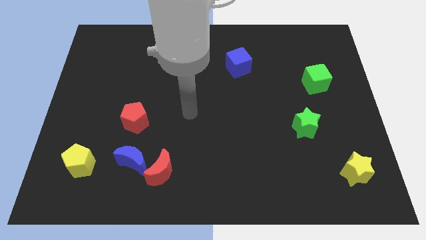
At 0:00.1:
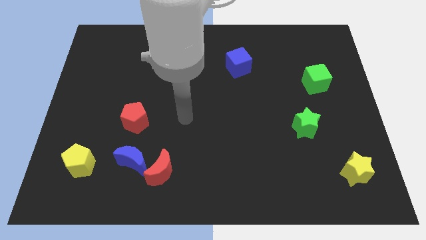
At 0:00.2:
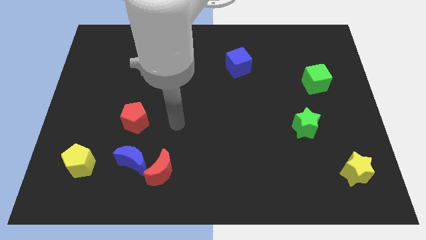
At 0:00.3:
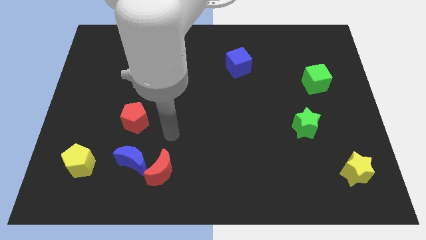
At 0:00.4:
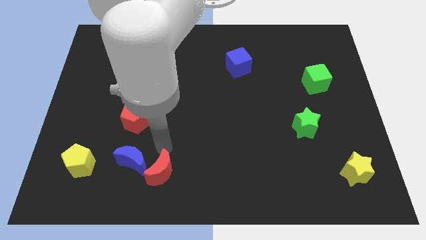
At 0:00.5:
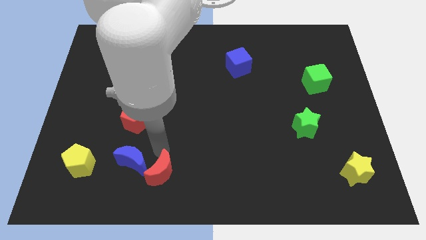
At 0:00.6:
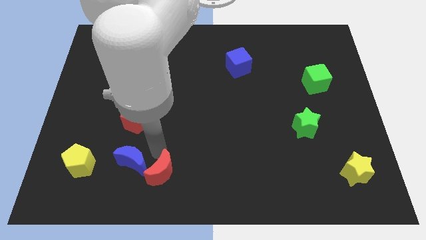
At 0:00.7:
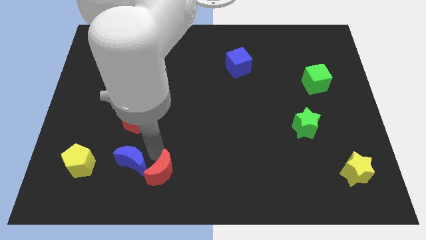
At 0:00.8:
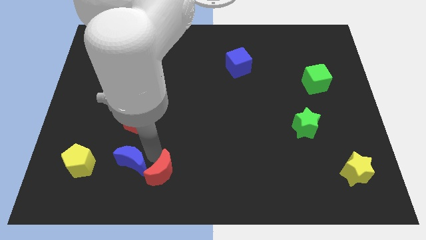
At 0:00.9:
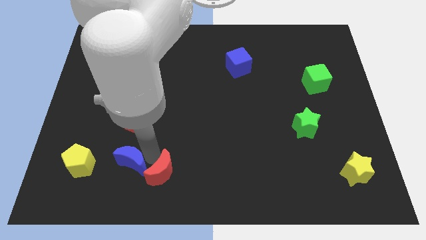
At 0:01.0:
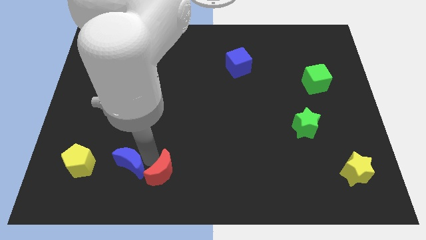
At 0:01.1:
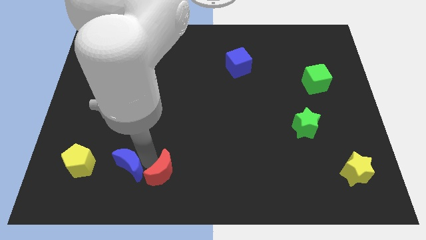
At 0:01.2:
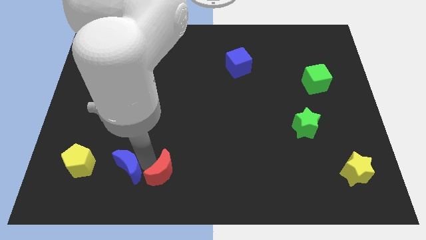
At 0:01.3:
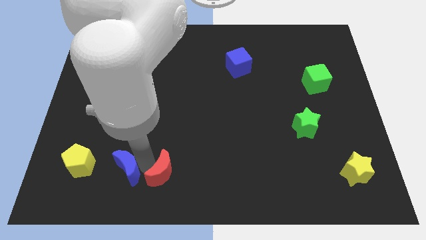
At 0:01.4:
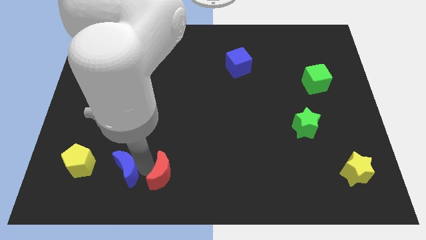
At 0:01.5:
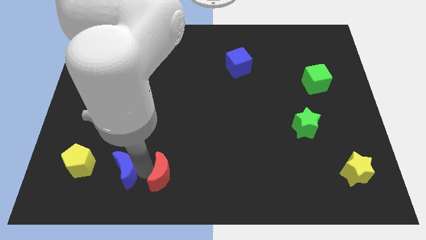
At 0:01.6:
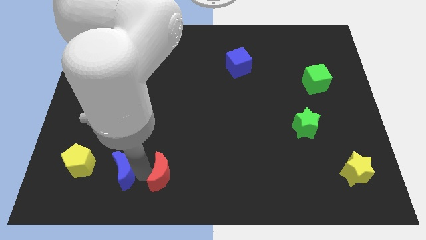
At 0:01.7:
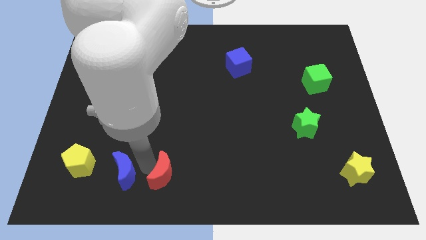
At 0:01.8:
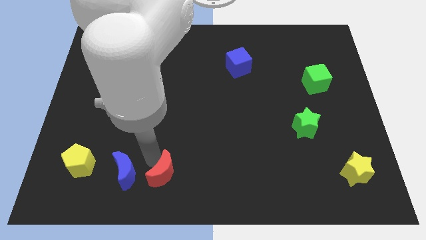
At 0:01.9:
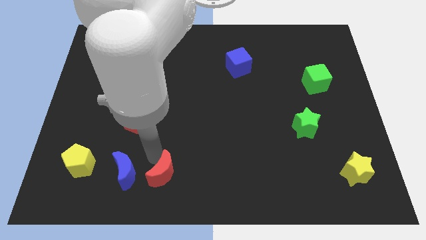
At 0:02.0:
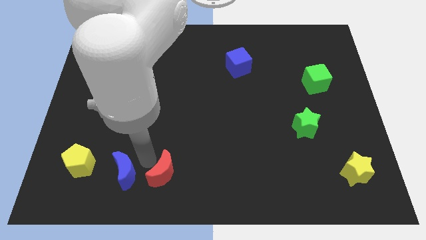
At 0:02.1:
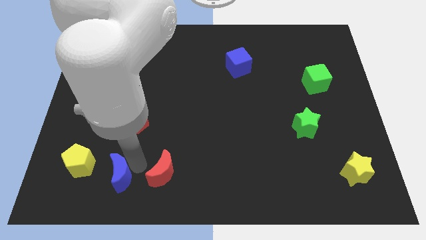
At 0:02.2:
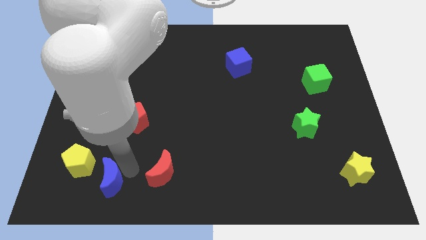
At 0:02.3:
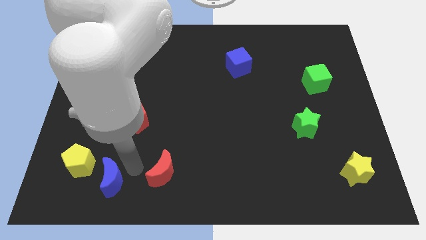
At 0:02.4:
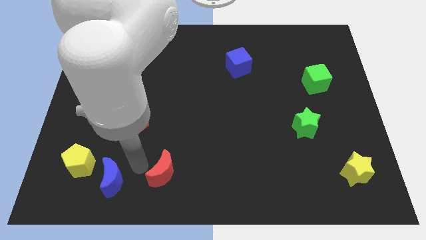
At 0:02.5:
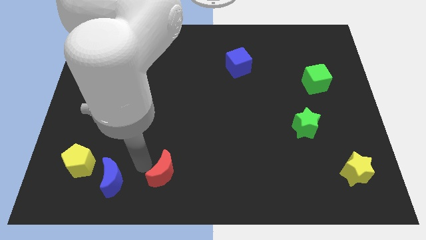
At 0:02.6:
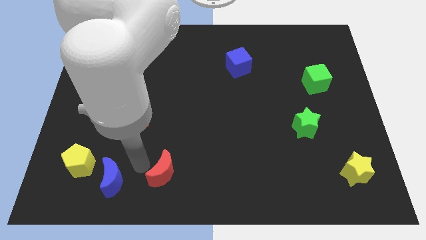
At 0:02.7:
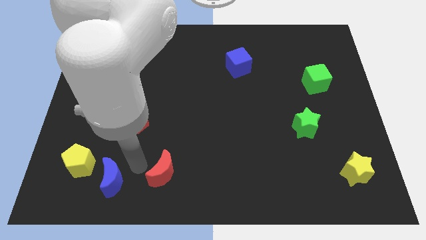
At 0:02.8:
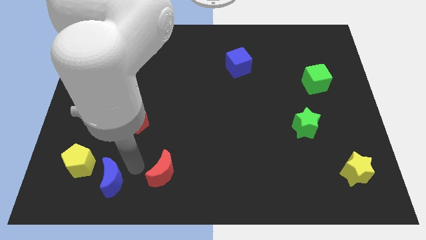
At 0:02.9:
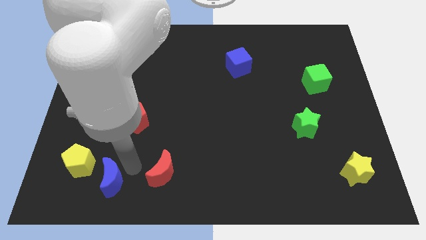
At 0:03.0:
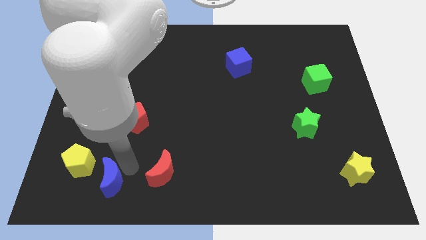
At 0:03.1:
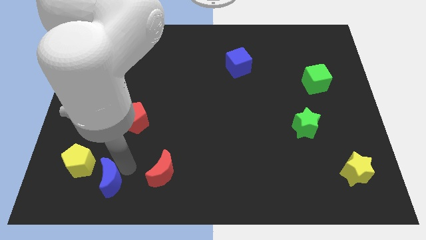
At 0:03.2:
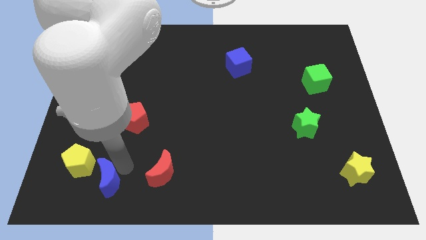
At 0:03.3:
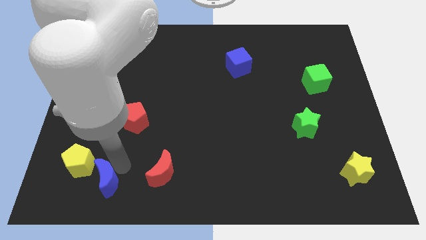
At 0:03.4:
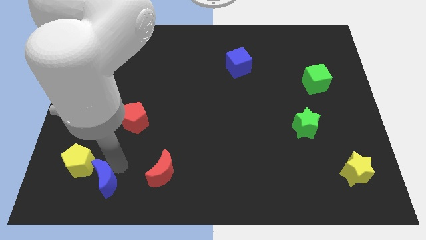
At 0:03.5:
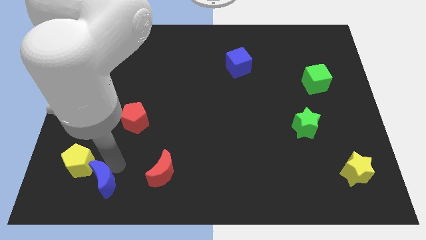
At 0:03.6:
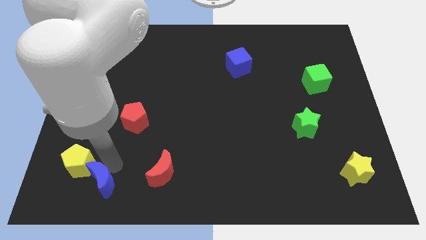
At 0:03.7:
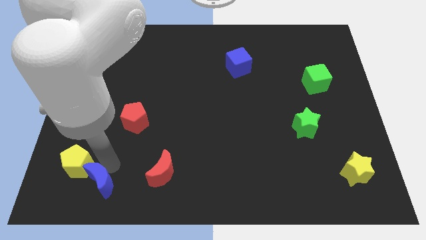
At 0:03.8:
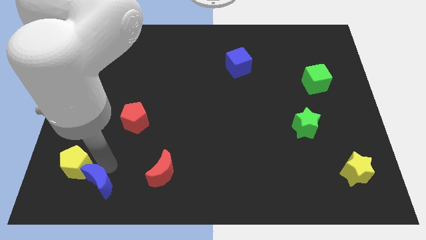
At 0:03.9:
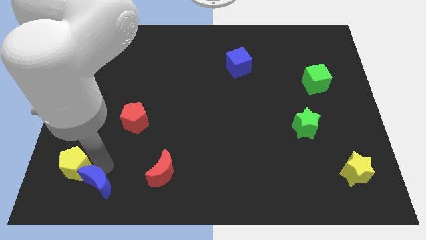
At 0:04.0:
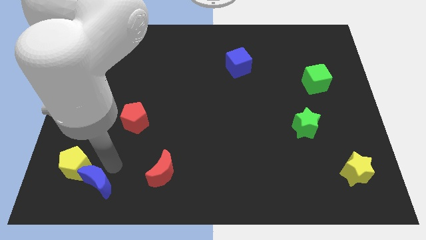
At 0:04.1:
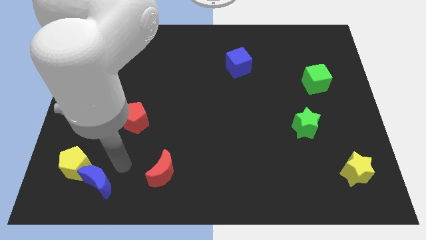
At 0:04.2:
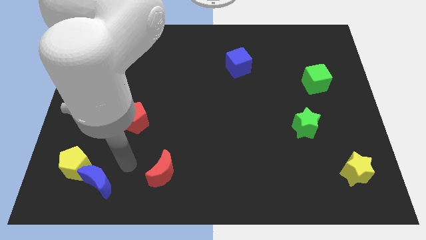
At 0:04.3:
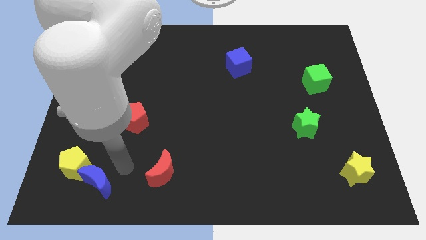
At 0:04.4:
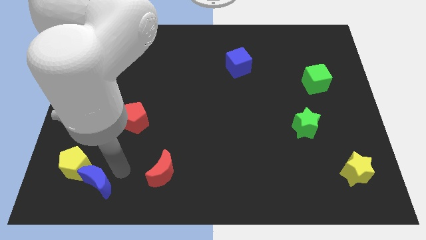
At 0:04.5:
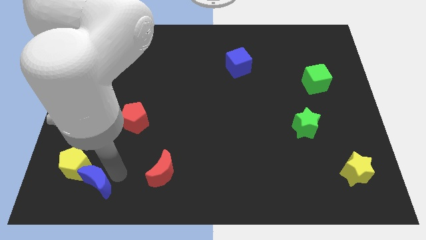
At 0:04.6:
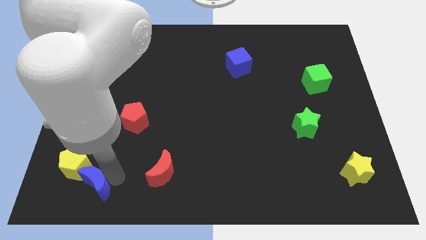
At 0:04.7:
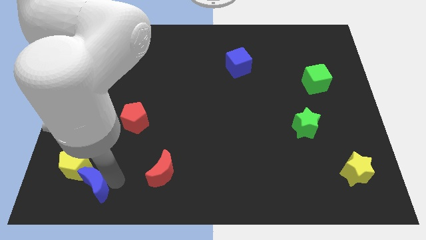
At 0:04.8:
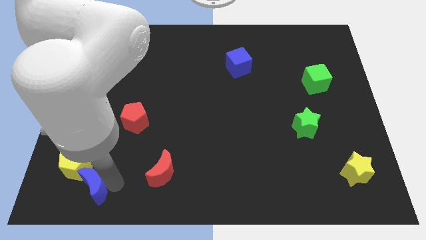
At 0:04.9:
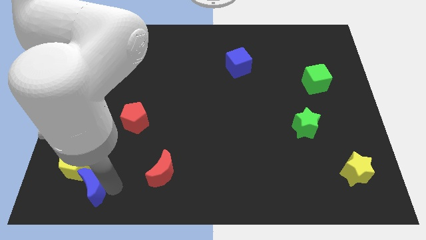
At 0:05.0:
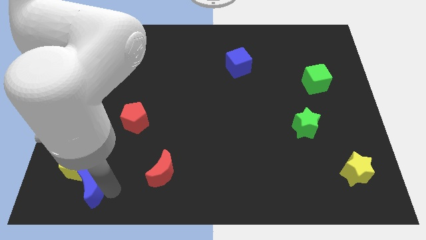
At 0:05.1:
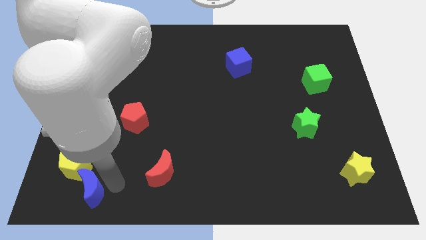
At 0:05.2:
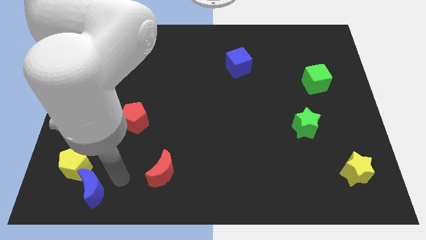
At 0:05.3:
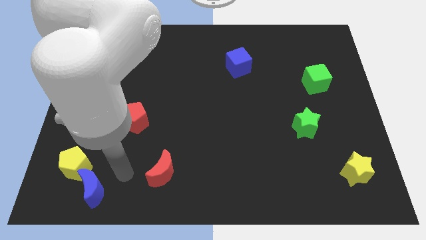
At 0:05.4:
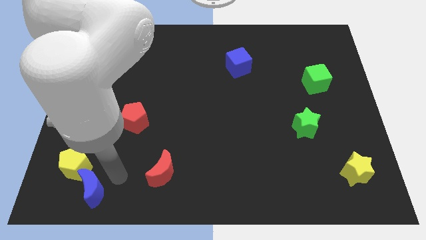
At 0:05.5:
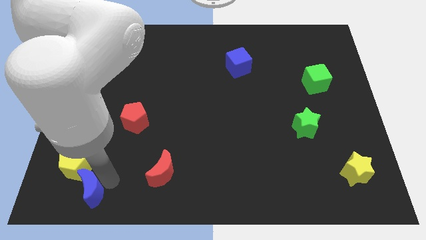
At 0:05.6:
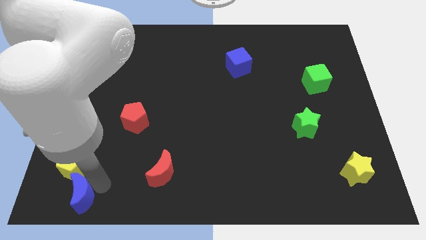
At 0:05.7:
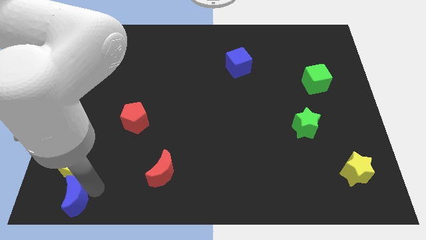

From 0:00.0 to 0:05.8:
push the blue moon to the bottom left corner
